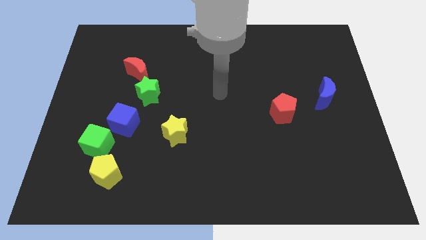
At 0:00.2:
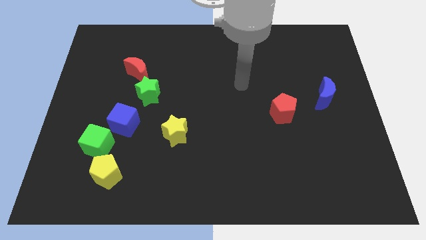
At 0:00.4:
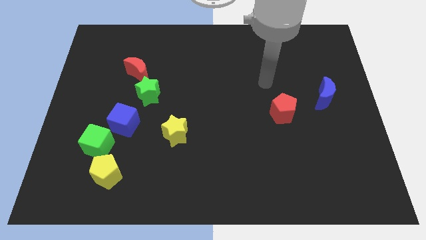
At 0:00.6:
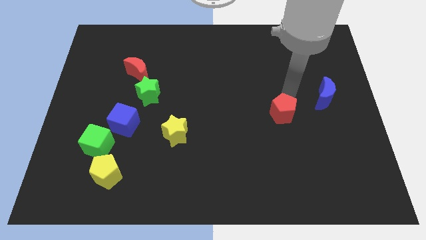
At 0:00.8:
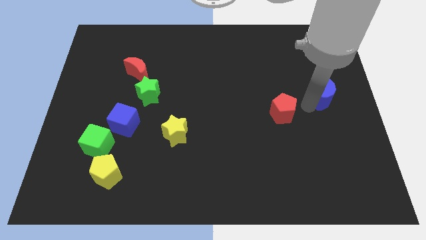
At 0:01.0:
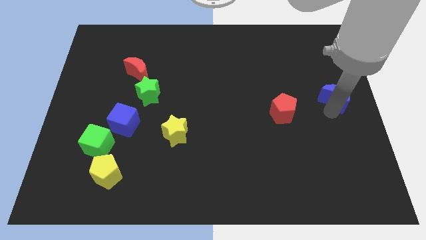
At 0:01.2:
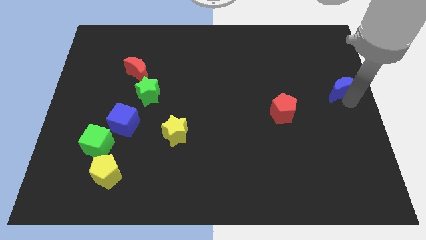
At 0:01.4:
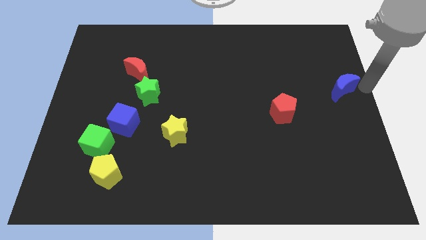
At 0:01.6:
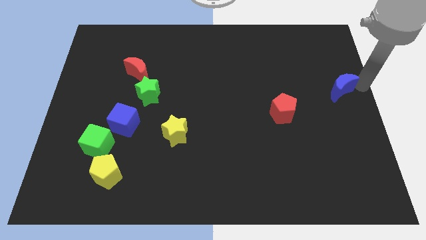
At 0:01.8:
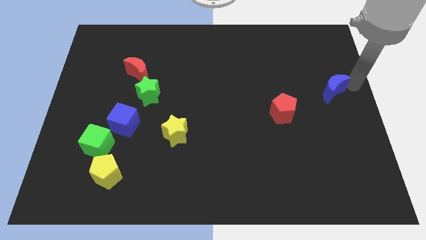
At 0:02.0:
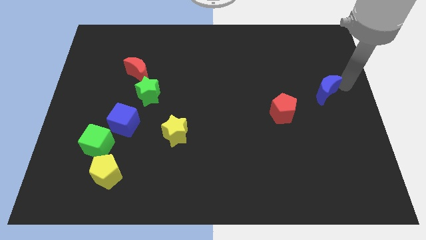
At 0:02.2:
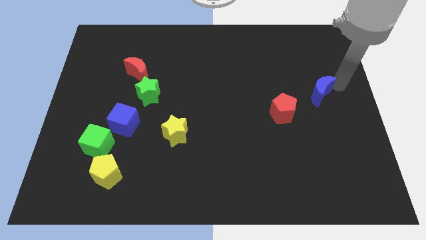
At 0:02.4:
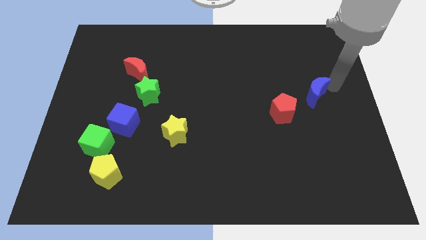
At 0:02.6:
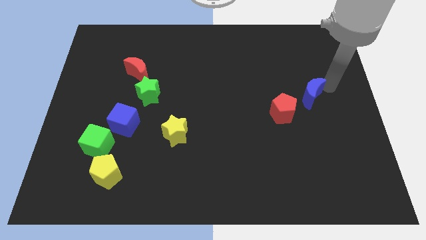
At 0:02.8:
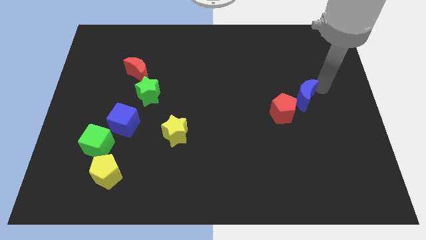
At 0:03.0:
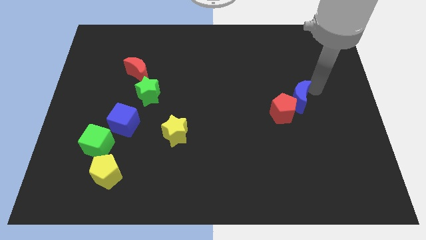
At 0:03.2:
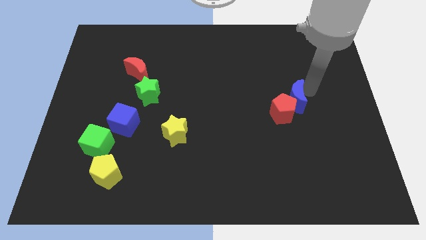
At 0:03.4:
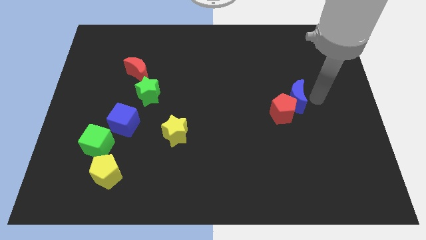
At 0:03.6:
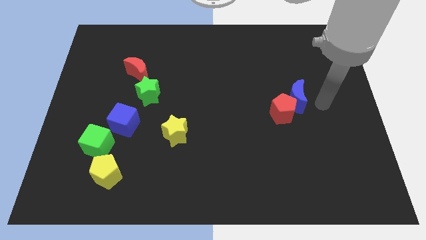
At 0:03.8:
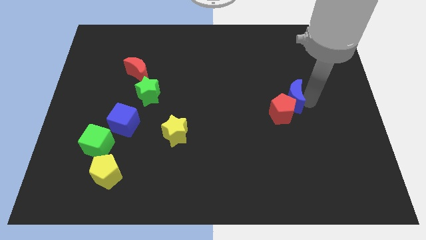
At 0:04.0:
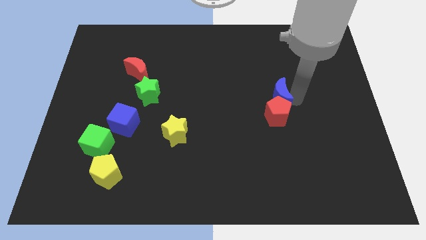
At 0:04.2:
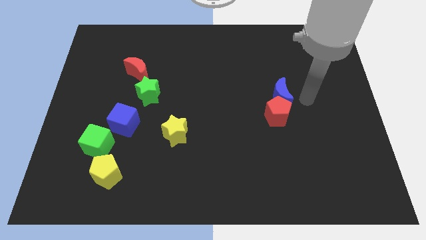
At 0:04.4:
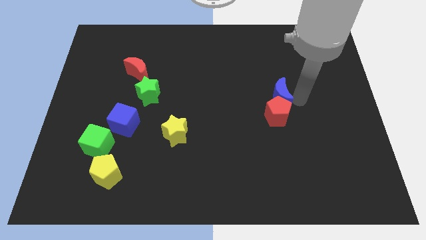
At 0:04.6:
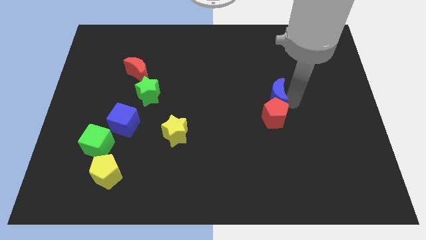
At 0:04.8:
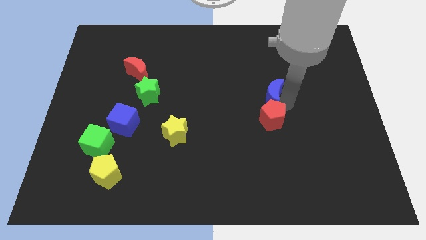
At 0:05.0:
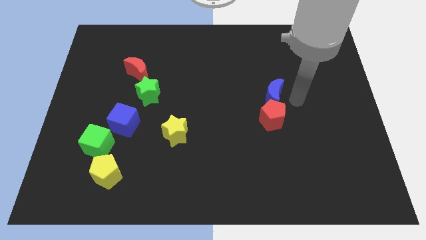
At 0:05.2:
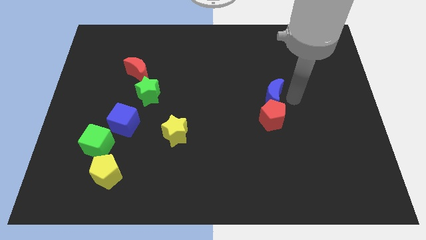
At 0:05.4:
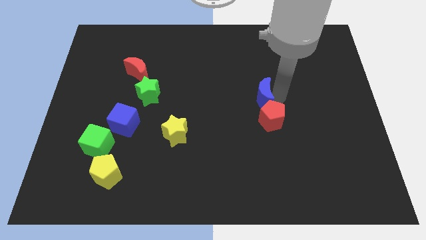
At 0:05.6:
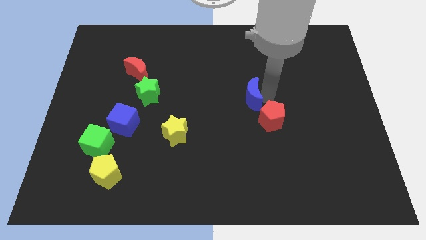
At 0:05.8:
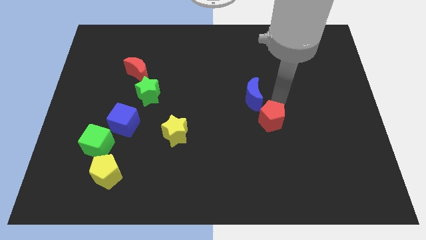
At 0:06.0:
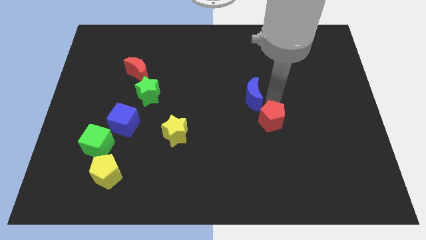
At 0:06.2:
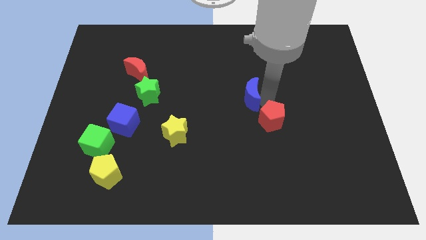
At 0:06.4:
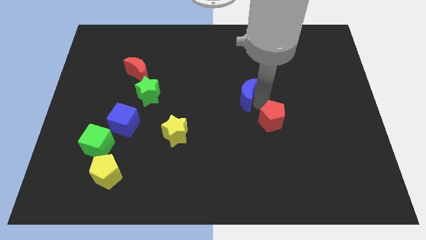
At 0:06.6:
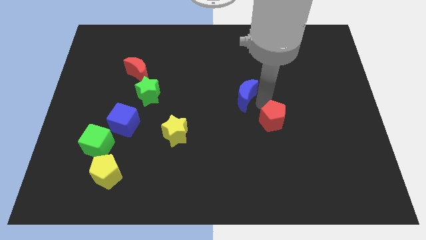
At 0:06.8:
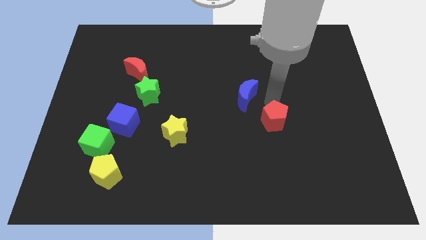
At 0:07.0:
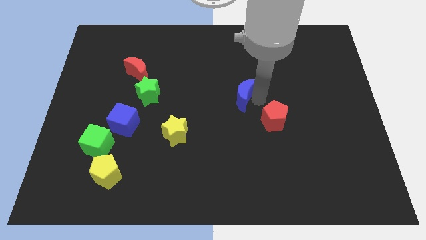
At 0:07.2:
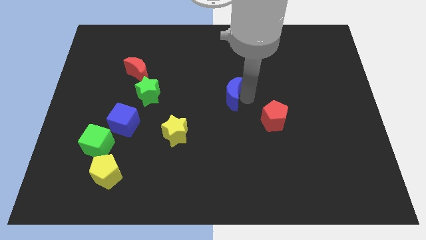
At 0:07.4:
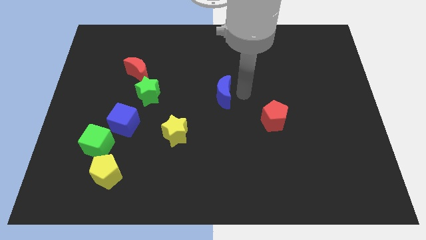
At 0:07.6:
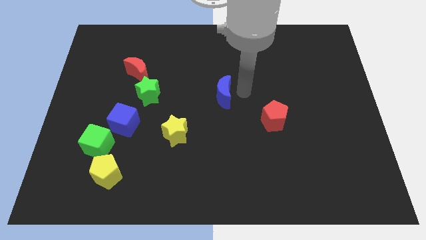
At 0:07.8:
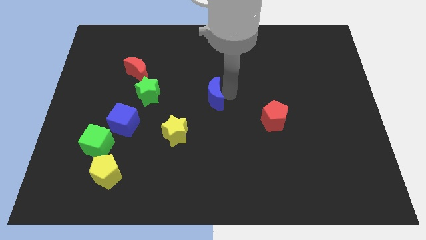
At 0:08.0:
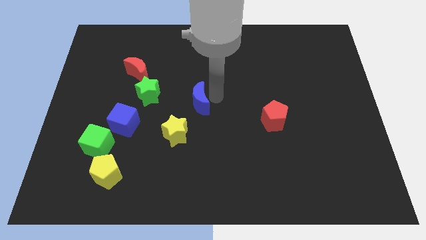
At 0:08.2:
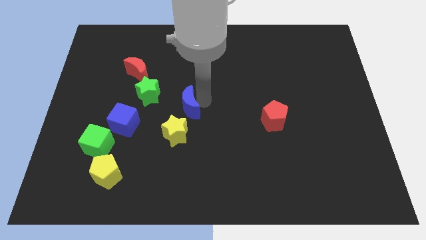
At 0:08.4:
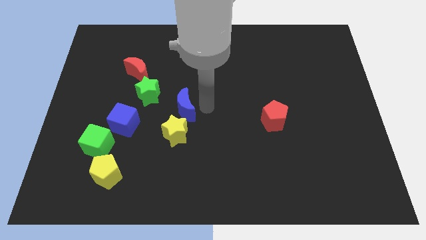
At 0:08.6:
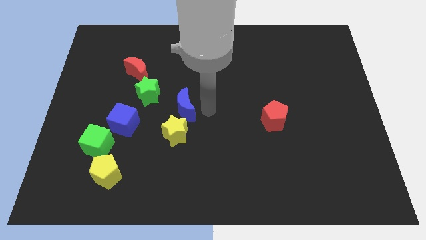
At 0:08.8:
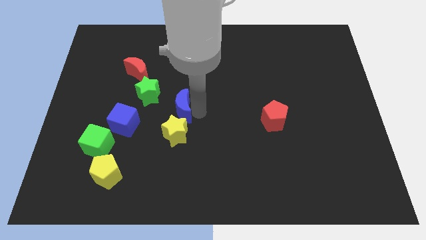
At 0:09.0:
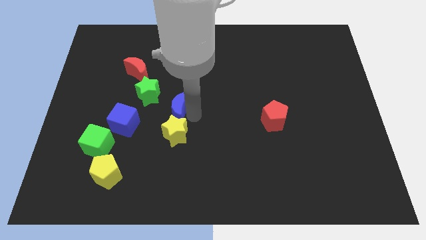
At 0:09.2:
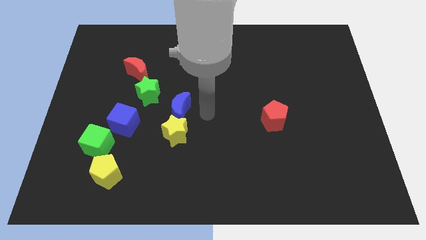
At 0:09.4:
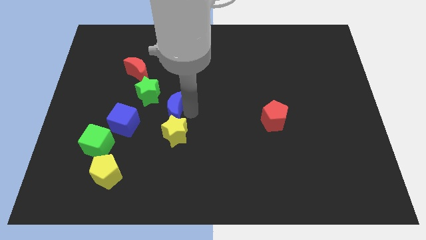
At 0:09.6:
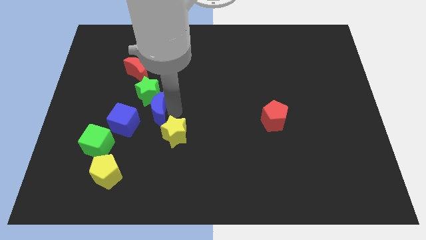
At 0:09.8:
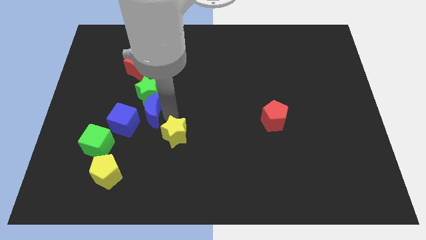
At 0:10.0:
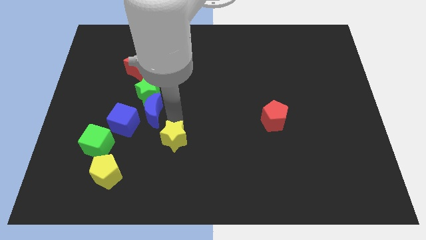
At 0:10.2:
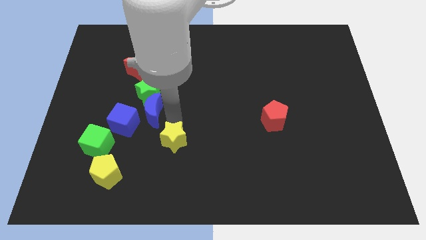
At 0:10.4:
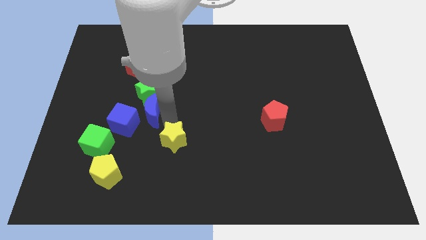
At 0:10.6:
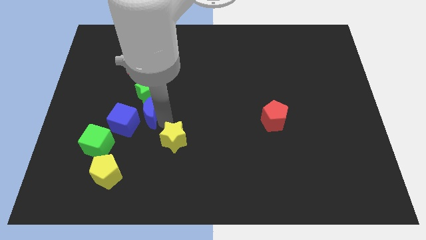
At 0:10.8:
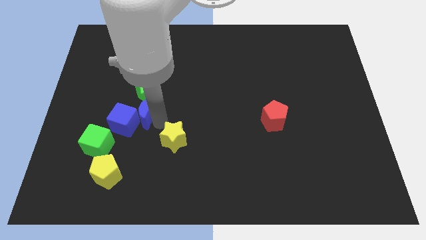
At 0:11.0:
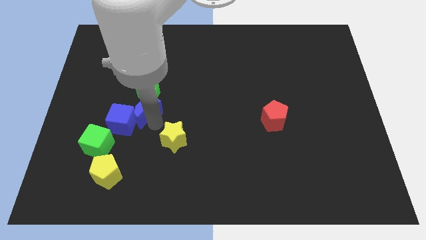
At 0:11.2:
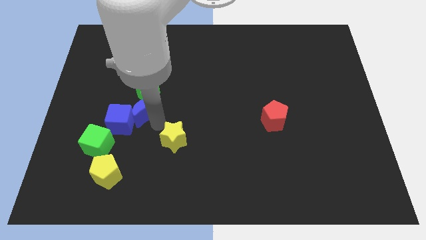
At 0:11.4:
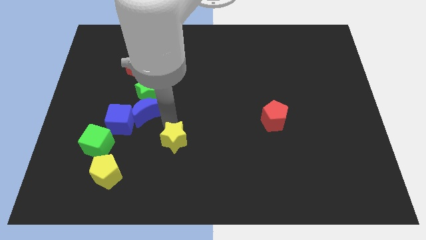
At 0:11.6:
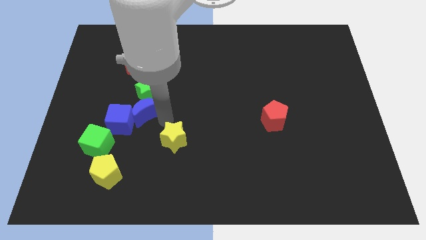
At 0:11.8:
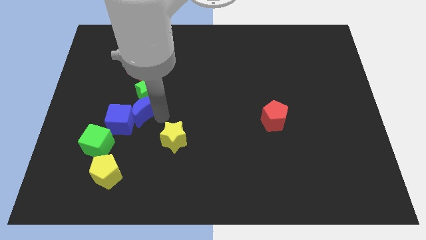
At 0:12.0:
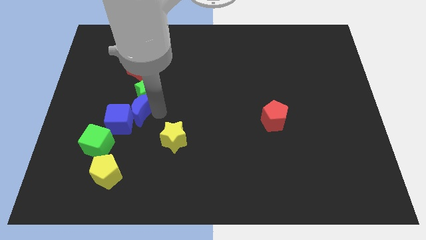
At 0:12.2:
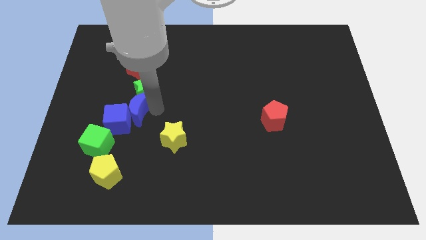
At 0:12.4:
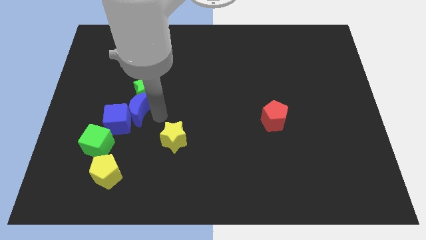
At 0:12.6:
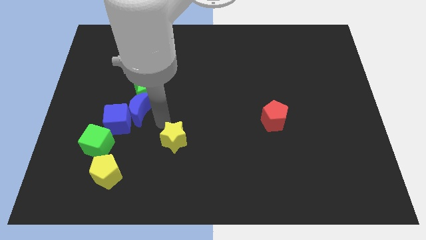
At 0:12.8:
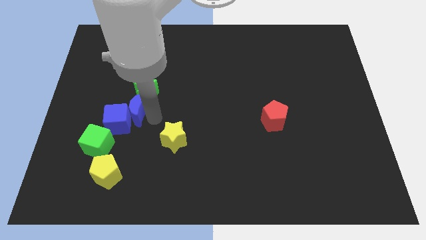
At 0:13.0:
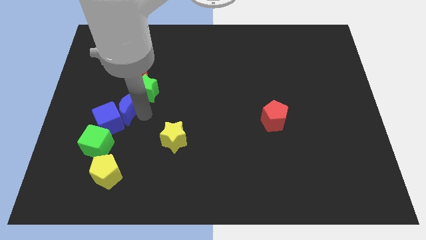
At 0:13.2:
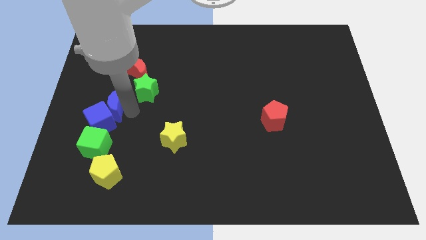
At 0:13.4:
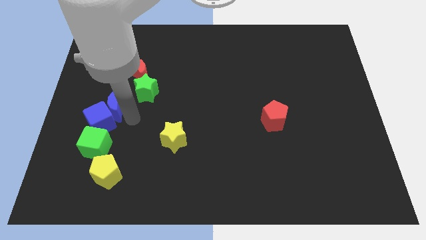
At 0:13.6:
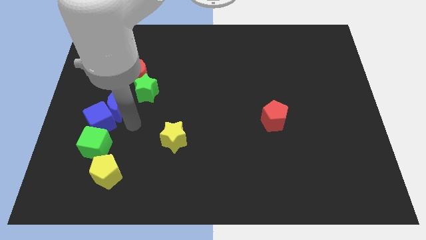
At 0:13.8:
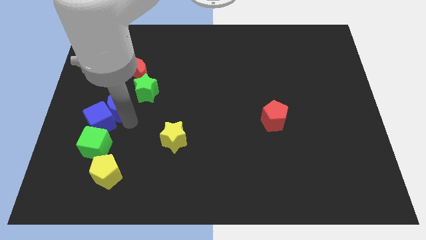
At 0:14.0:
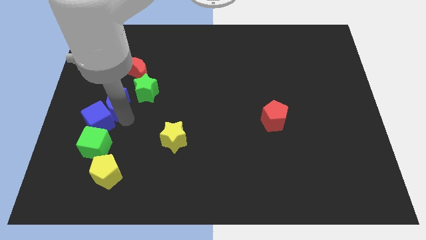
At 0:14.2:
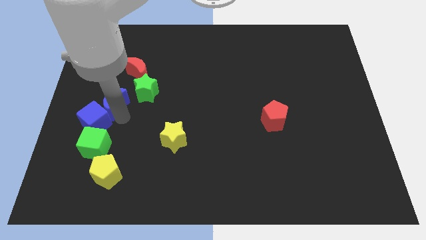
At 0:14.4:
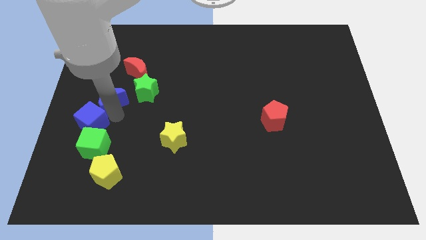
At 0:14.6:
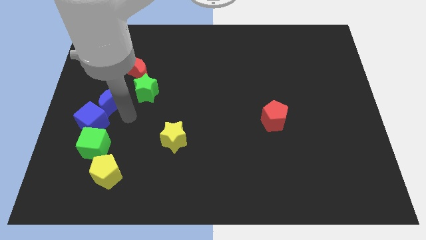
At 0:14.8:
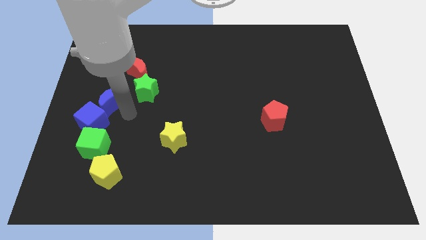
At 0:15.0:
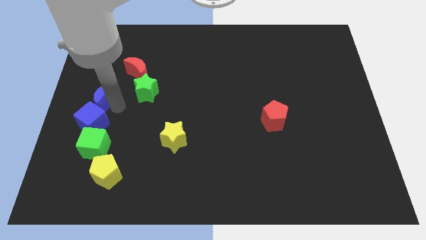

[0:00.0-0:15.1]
move the blue moon to the left side

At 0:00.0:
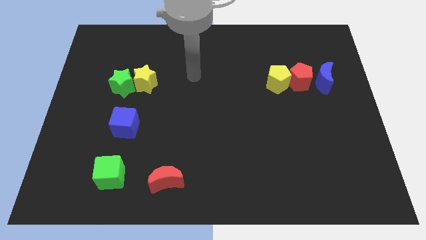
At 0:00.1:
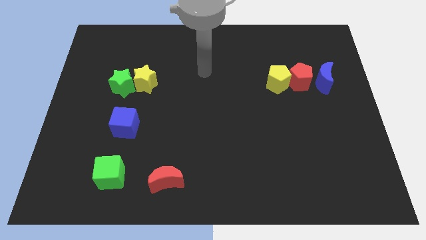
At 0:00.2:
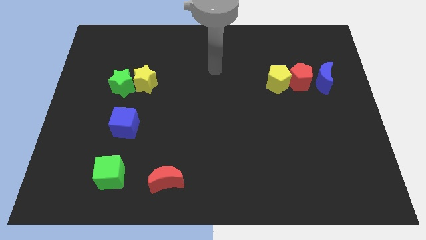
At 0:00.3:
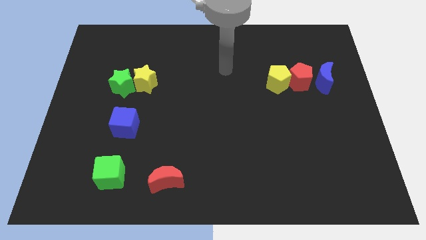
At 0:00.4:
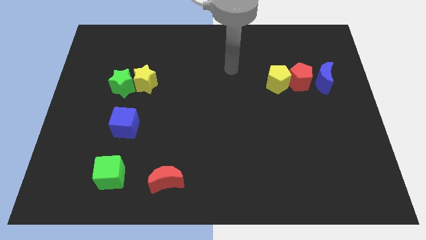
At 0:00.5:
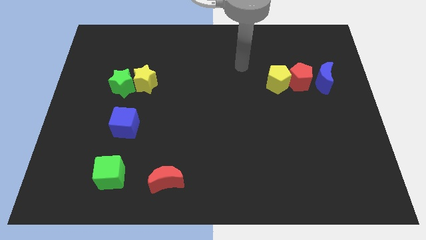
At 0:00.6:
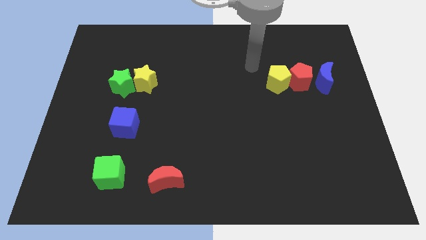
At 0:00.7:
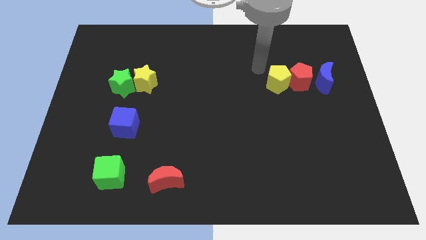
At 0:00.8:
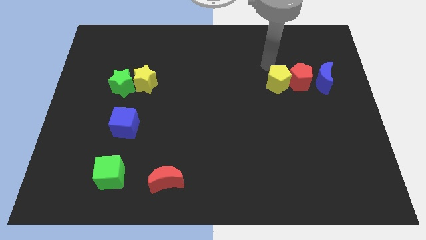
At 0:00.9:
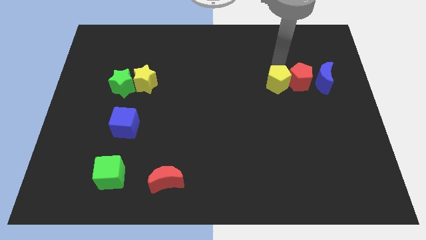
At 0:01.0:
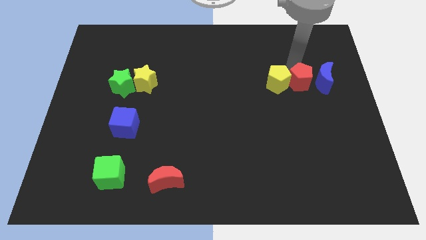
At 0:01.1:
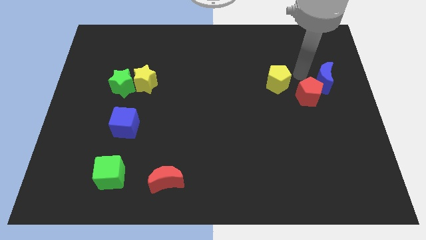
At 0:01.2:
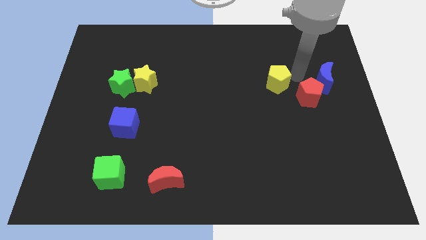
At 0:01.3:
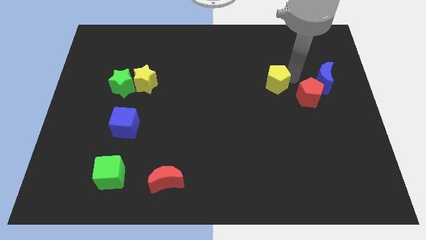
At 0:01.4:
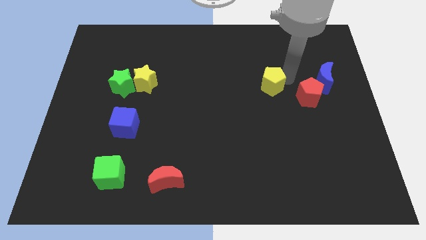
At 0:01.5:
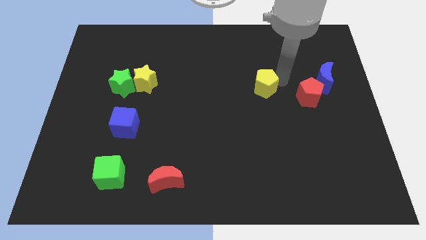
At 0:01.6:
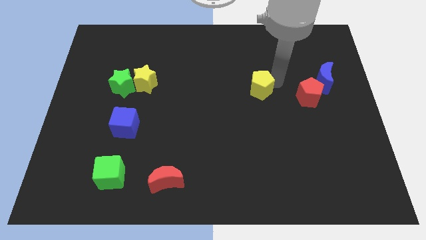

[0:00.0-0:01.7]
push the yellow pentagon to the center
